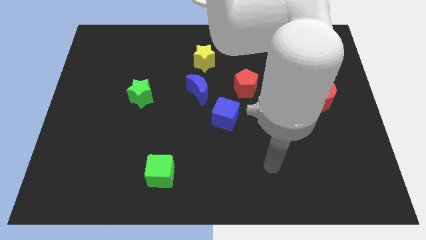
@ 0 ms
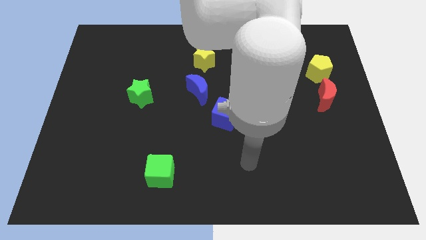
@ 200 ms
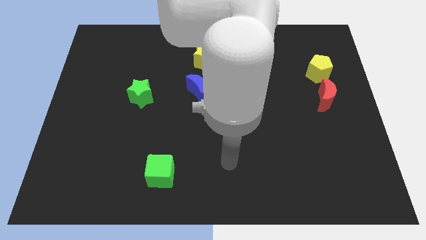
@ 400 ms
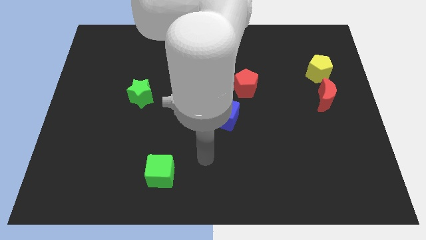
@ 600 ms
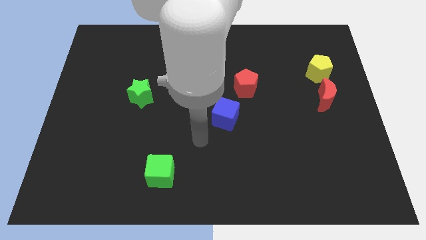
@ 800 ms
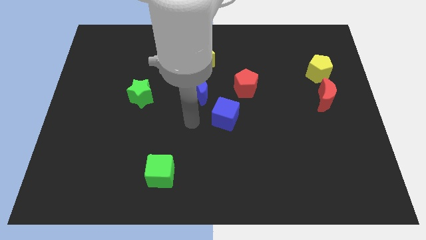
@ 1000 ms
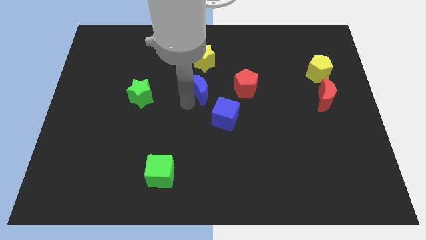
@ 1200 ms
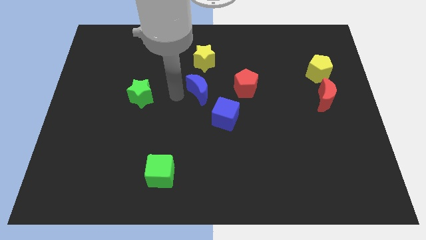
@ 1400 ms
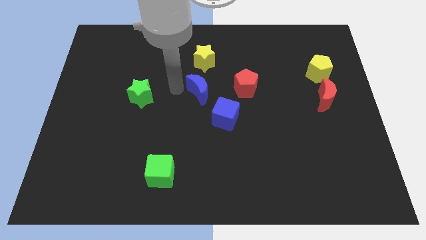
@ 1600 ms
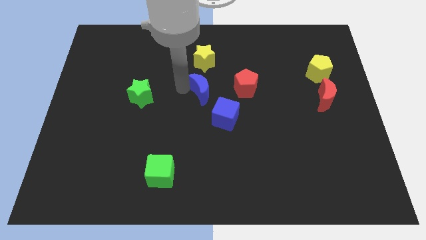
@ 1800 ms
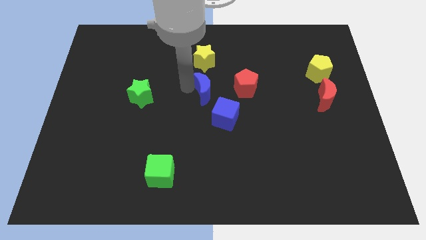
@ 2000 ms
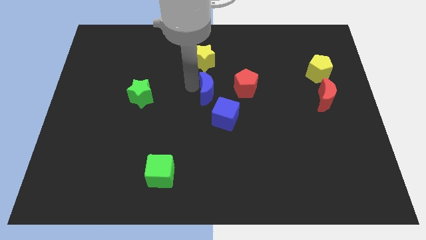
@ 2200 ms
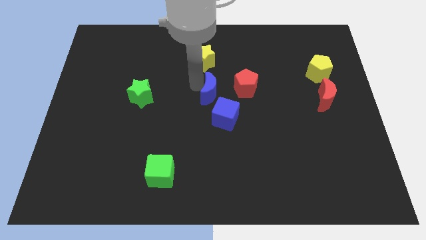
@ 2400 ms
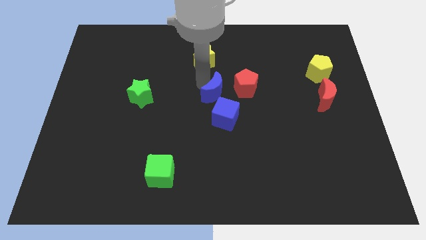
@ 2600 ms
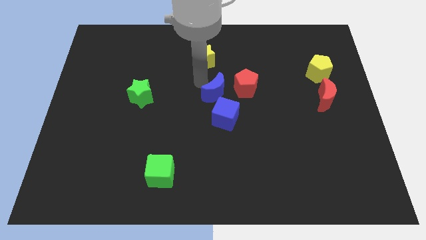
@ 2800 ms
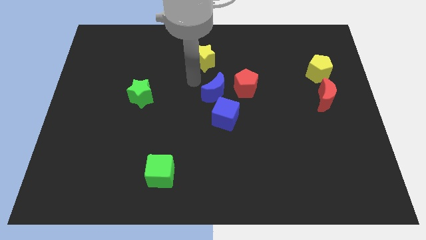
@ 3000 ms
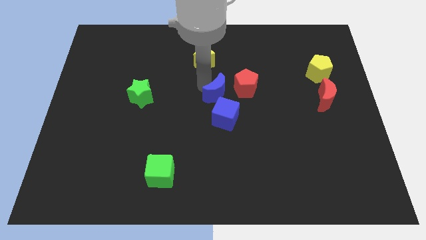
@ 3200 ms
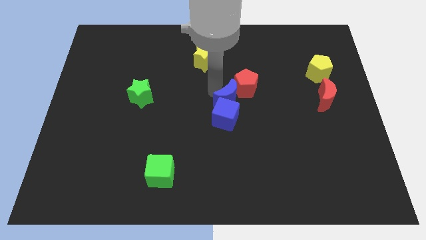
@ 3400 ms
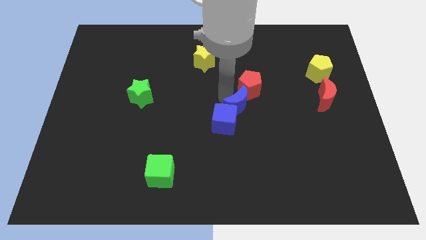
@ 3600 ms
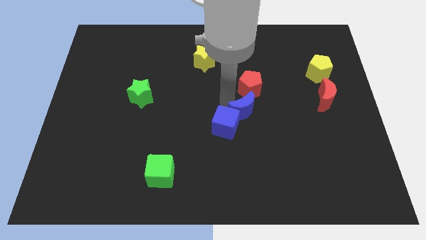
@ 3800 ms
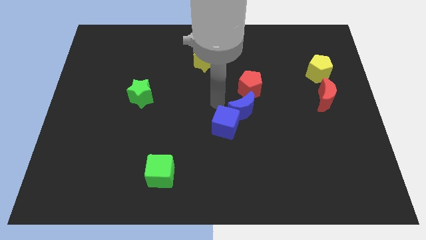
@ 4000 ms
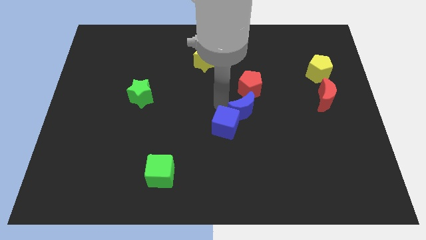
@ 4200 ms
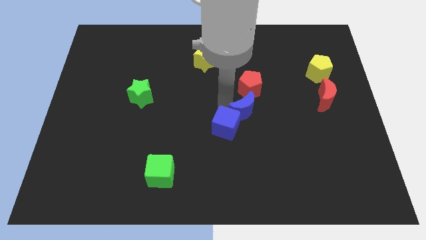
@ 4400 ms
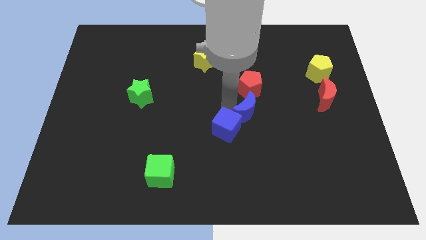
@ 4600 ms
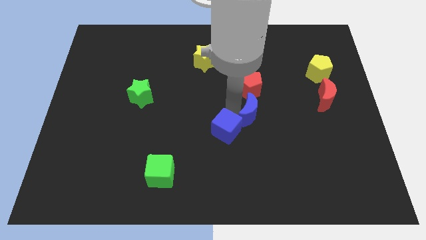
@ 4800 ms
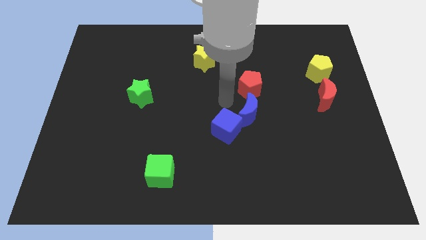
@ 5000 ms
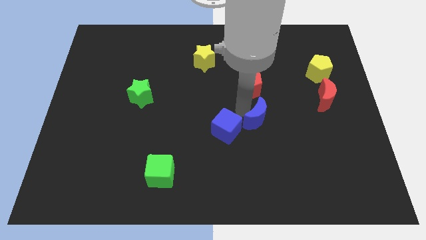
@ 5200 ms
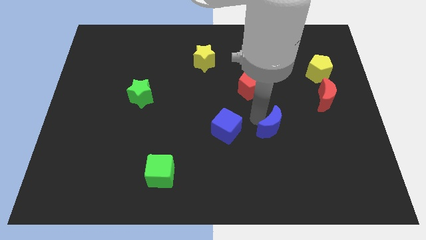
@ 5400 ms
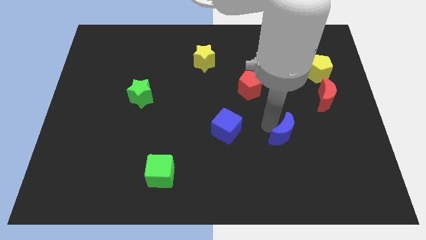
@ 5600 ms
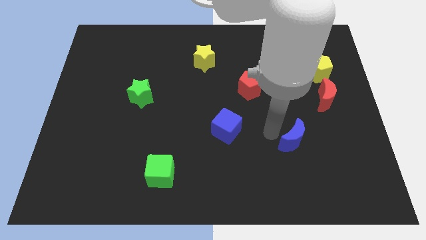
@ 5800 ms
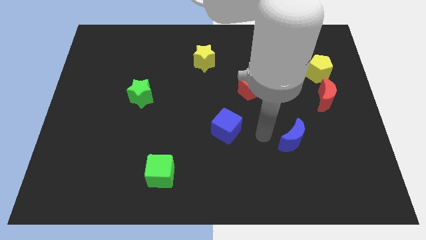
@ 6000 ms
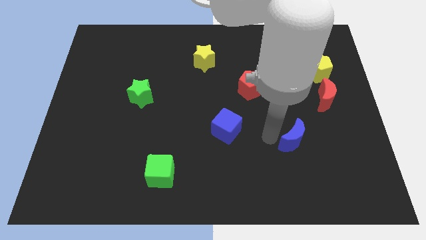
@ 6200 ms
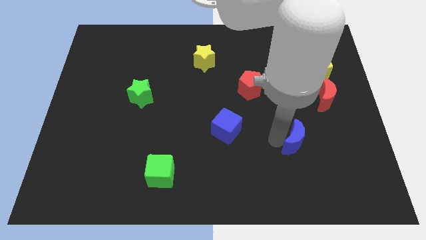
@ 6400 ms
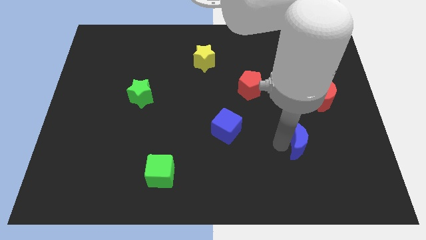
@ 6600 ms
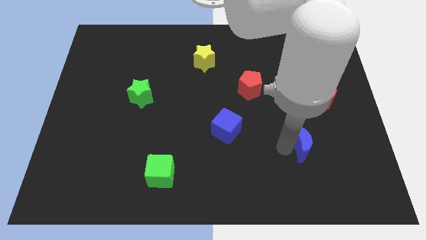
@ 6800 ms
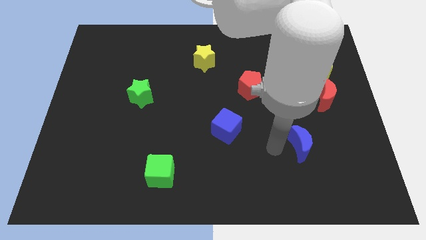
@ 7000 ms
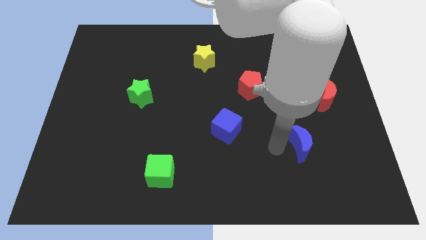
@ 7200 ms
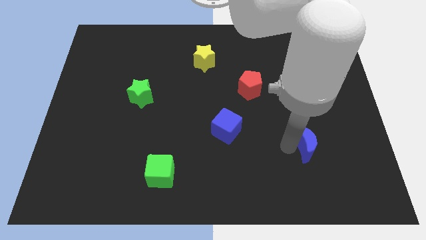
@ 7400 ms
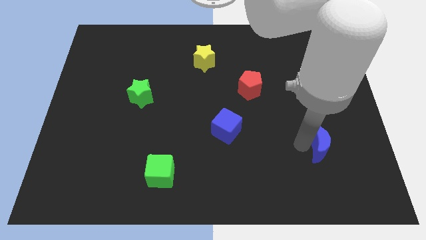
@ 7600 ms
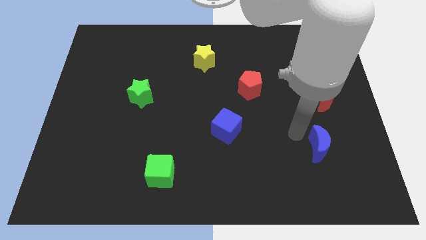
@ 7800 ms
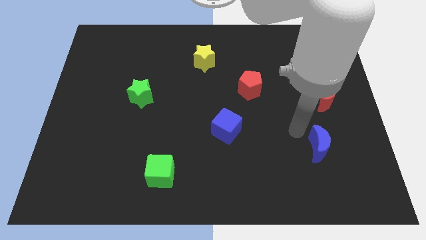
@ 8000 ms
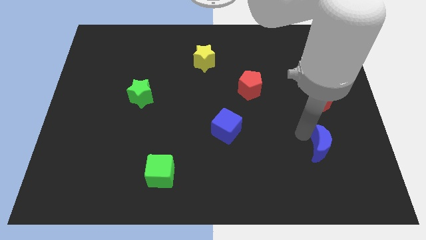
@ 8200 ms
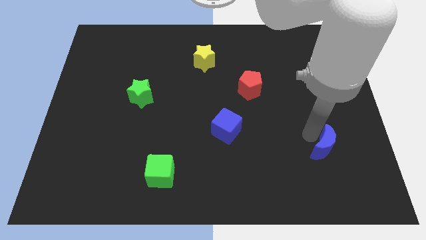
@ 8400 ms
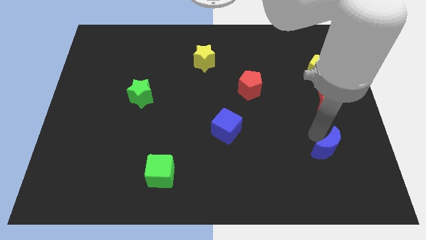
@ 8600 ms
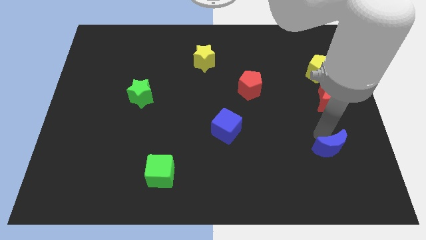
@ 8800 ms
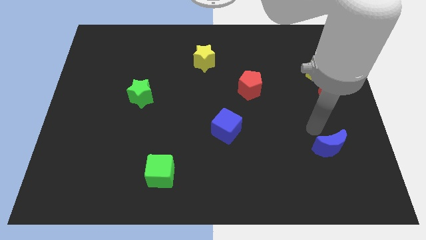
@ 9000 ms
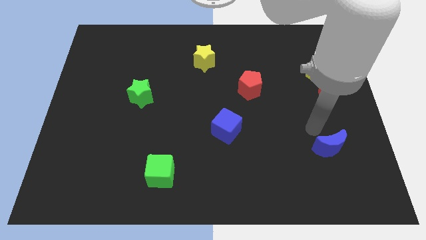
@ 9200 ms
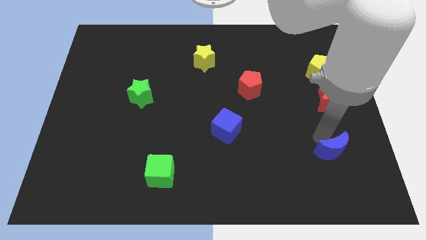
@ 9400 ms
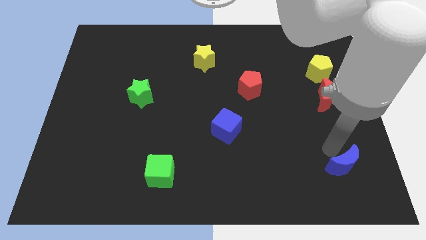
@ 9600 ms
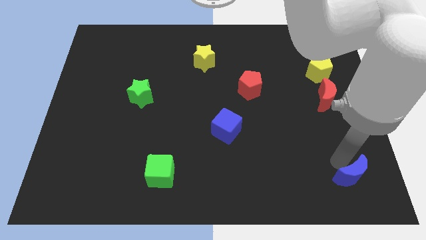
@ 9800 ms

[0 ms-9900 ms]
put the blue moon to the bottom right corner

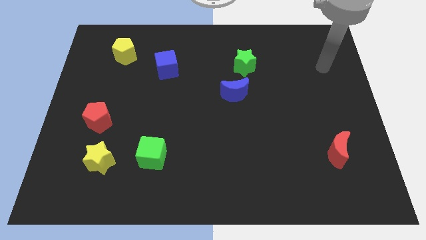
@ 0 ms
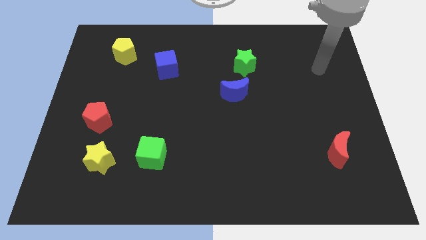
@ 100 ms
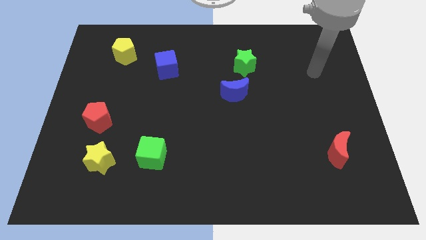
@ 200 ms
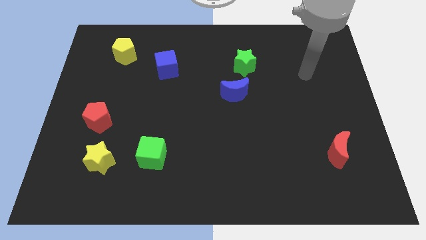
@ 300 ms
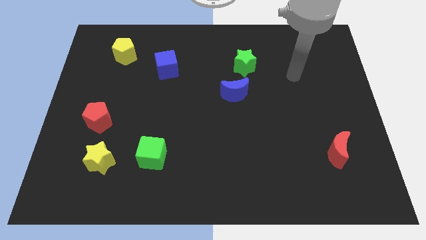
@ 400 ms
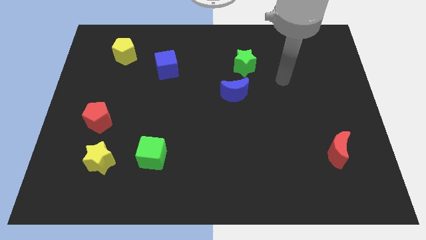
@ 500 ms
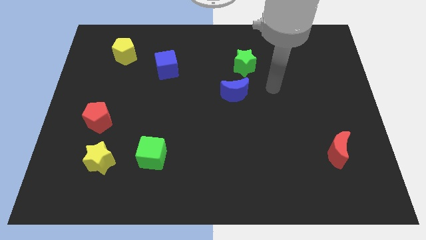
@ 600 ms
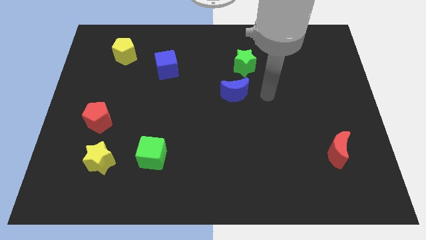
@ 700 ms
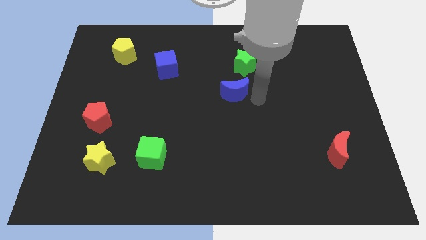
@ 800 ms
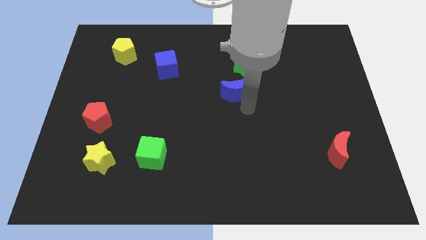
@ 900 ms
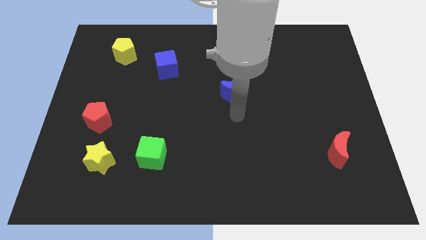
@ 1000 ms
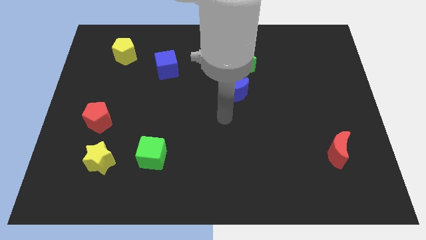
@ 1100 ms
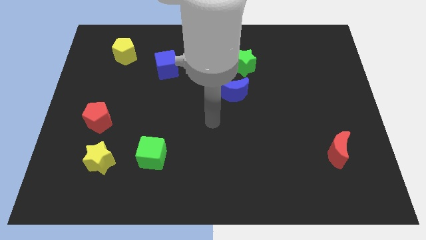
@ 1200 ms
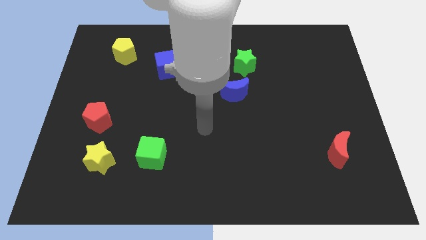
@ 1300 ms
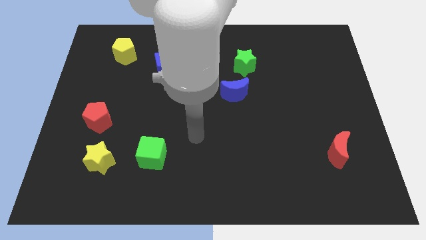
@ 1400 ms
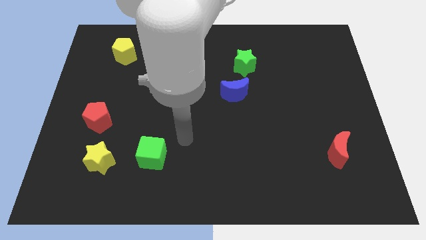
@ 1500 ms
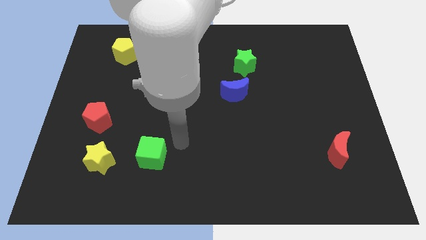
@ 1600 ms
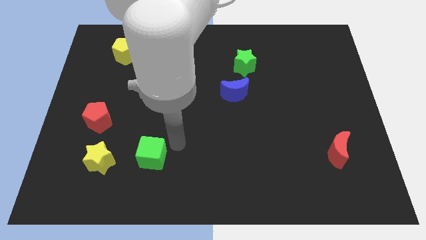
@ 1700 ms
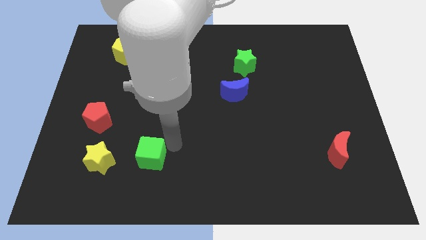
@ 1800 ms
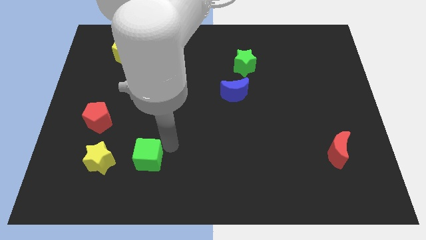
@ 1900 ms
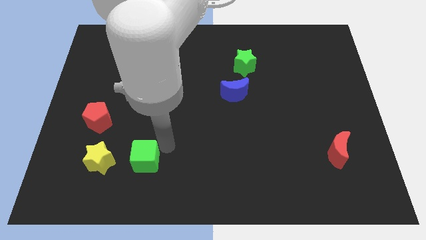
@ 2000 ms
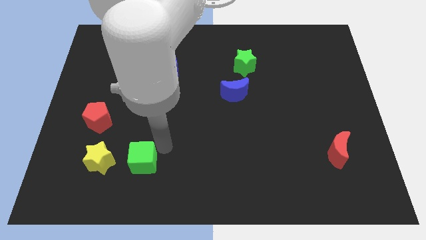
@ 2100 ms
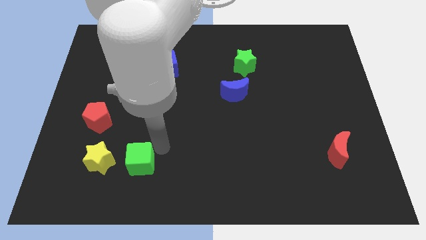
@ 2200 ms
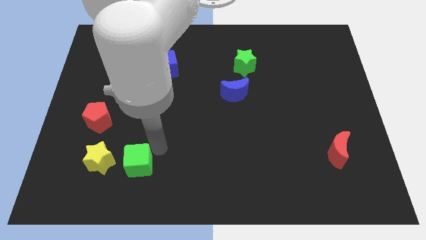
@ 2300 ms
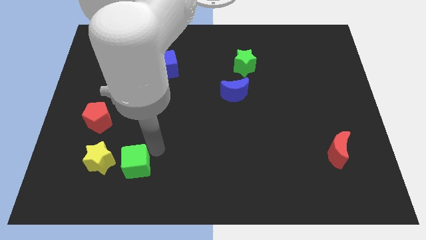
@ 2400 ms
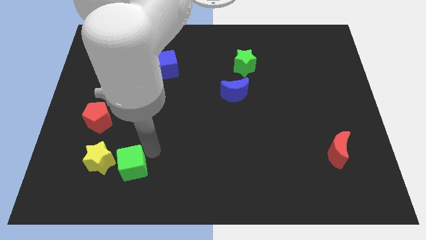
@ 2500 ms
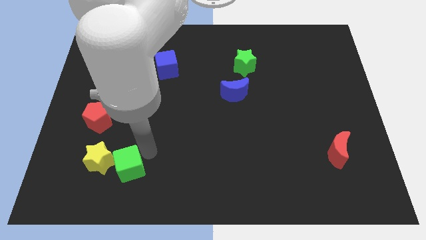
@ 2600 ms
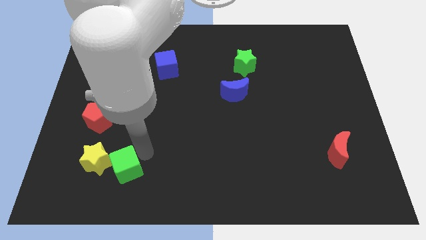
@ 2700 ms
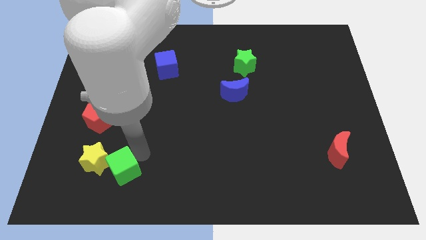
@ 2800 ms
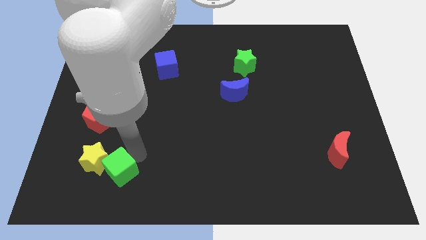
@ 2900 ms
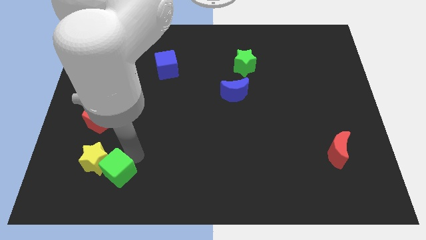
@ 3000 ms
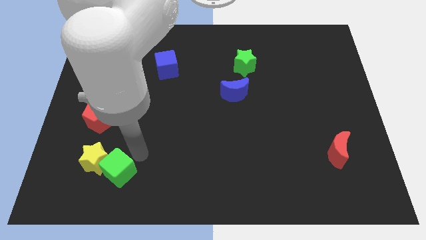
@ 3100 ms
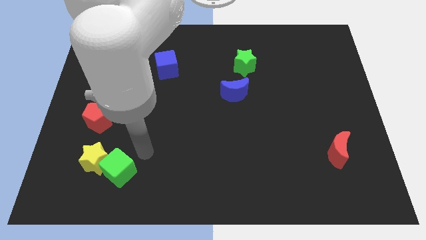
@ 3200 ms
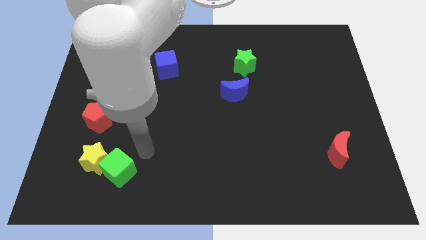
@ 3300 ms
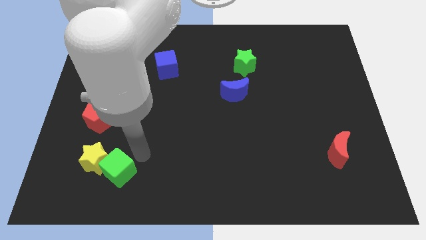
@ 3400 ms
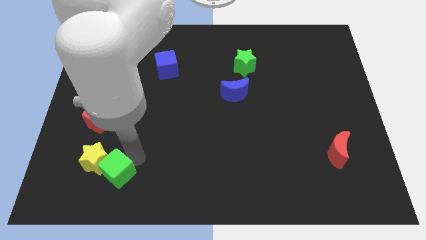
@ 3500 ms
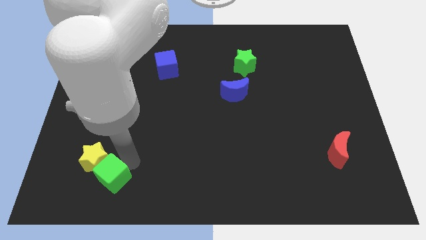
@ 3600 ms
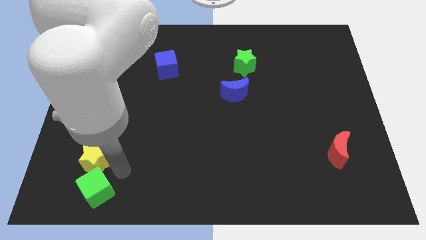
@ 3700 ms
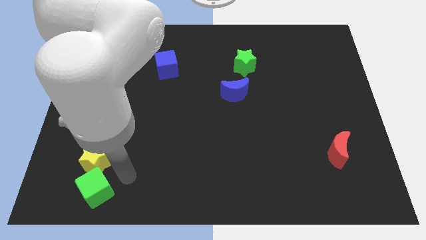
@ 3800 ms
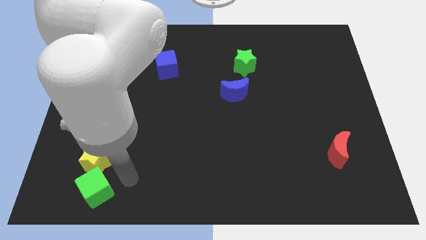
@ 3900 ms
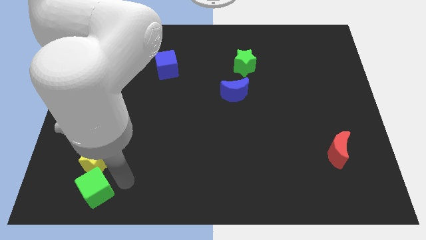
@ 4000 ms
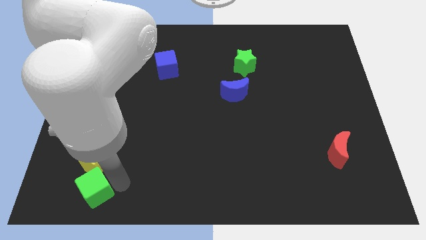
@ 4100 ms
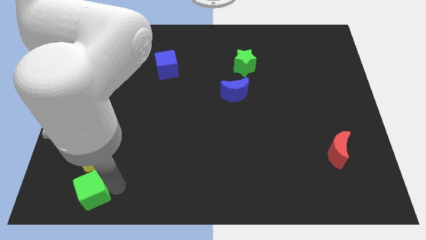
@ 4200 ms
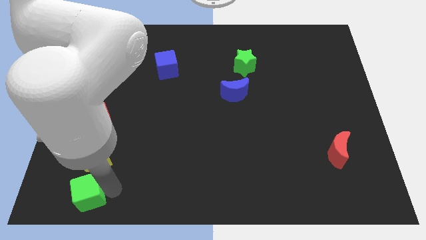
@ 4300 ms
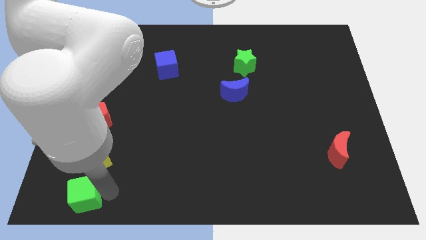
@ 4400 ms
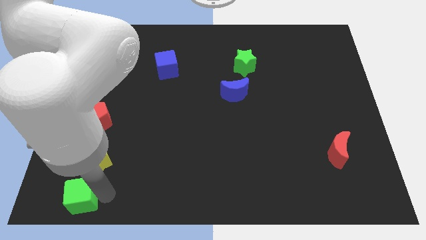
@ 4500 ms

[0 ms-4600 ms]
push the green cube to the bottom left corner
